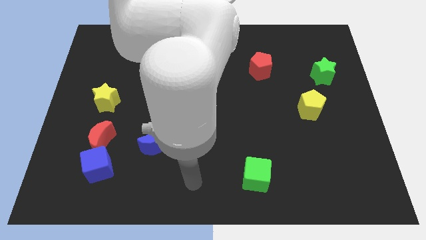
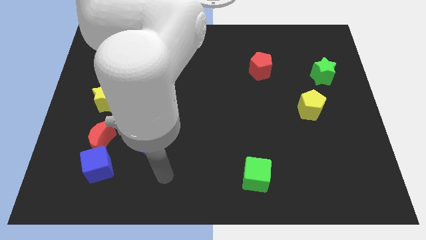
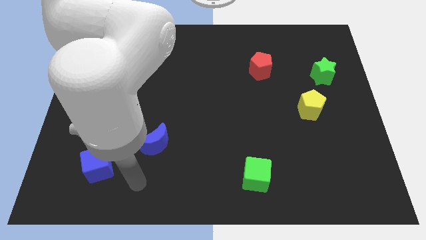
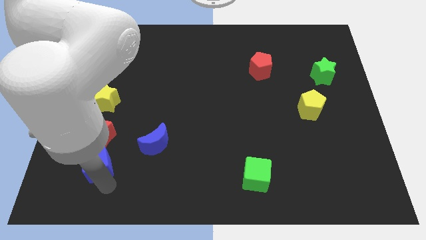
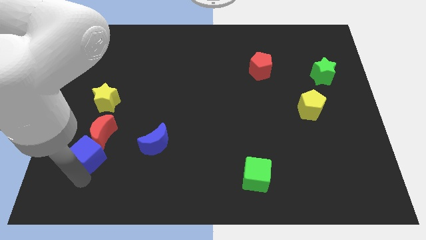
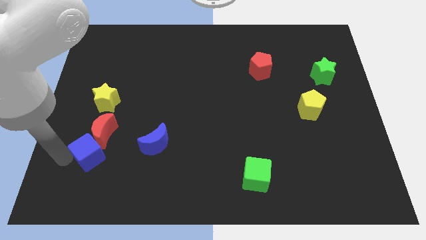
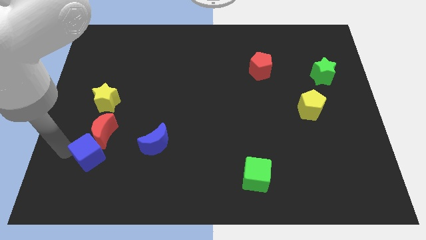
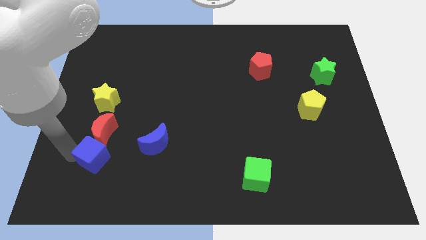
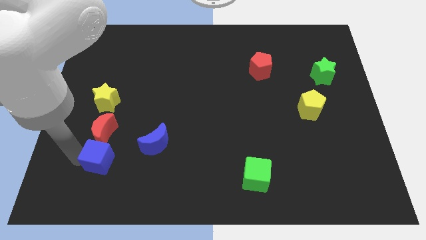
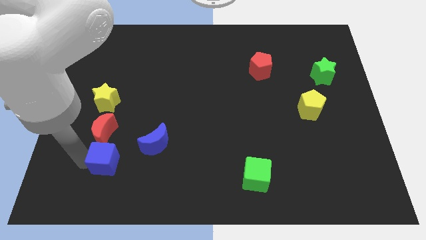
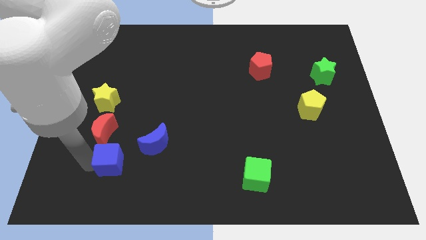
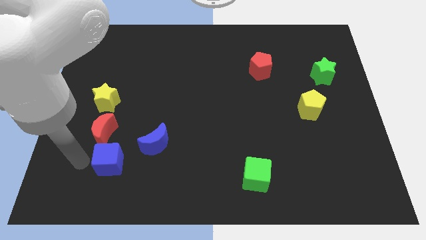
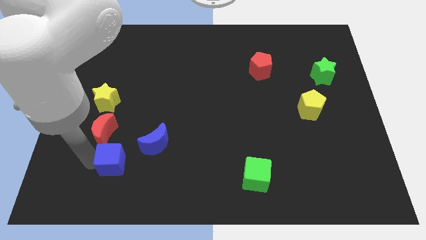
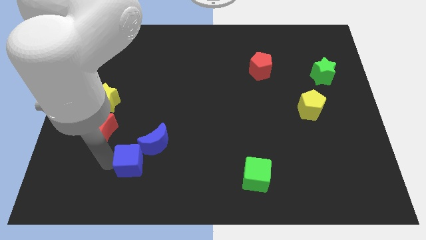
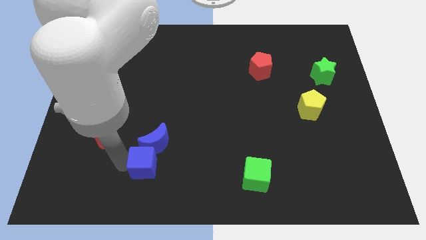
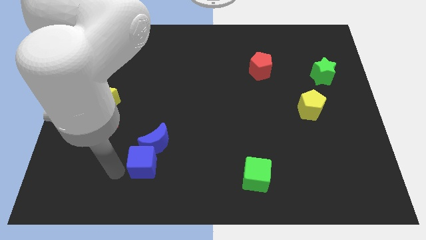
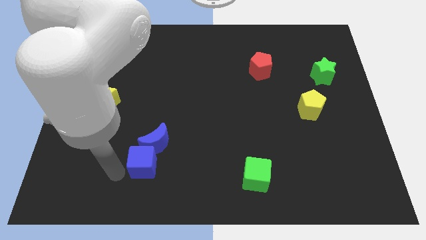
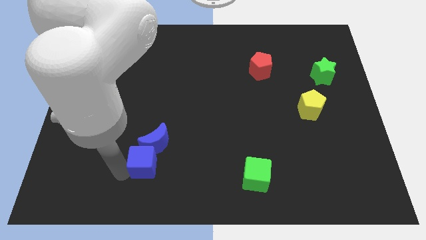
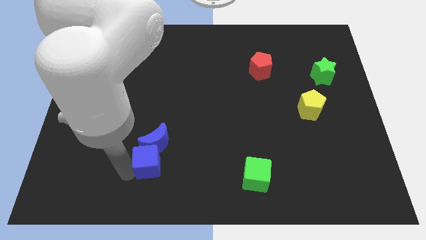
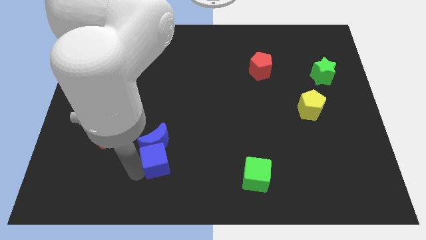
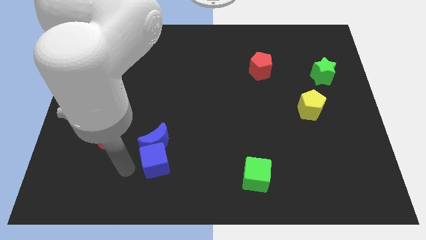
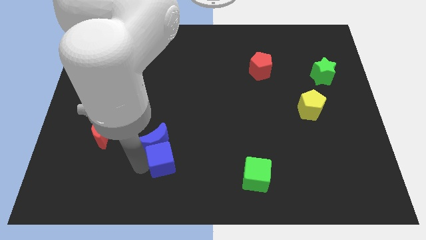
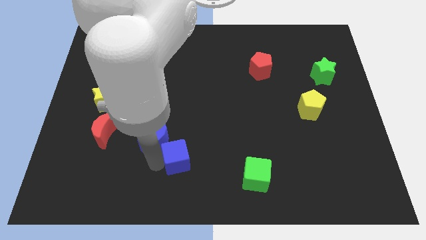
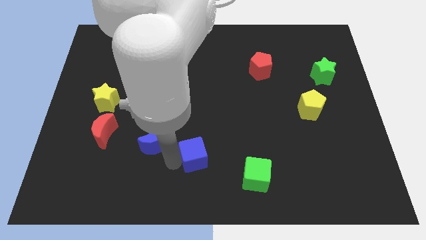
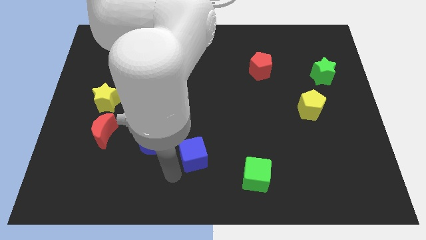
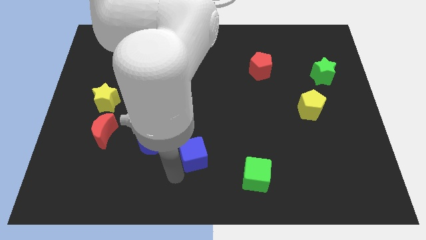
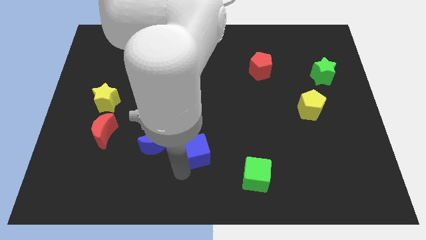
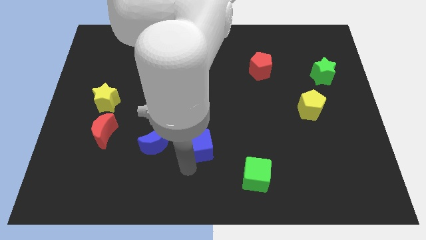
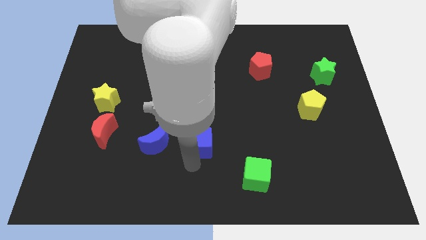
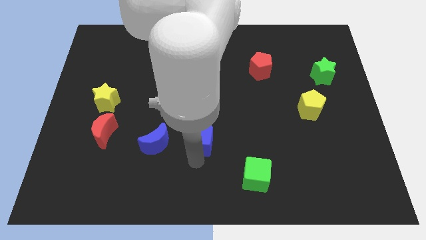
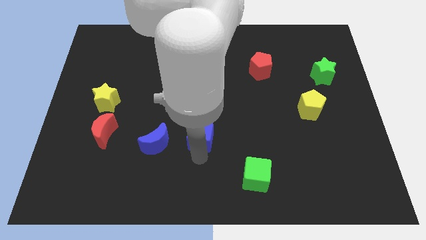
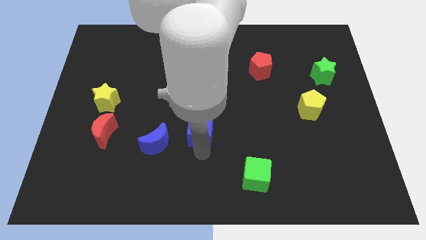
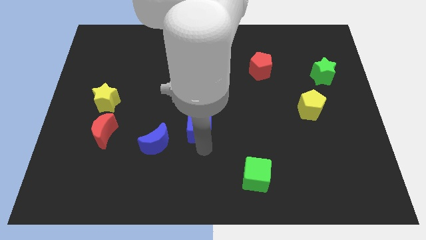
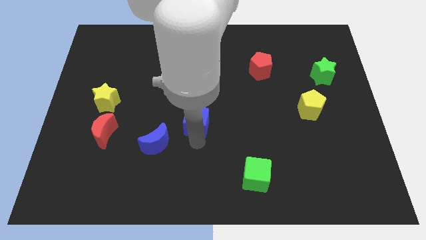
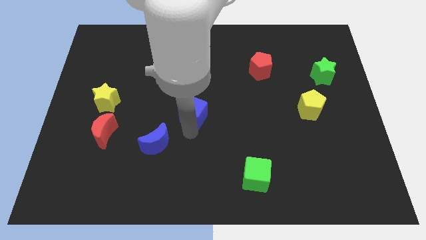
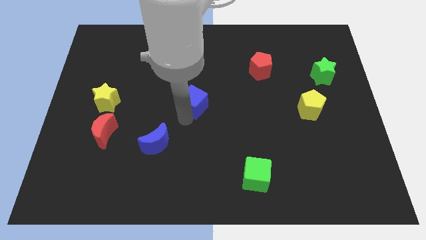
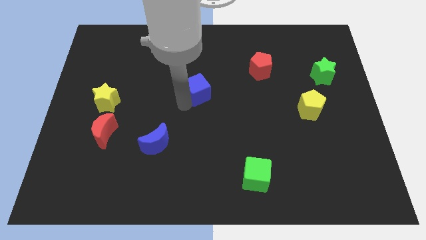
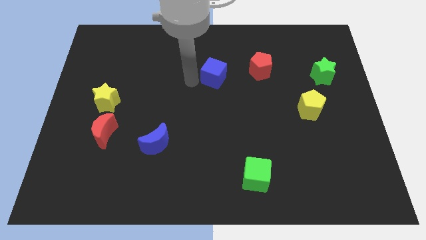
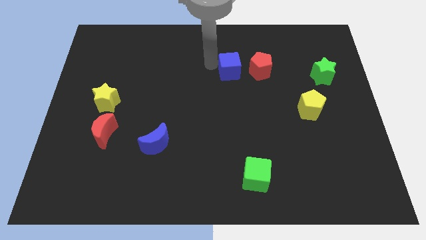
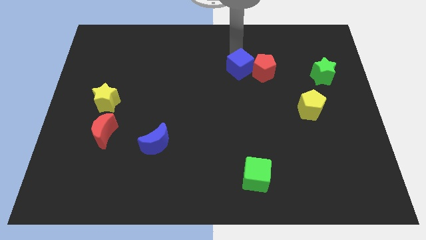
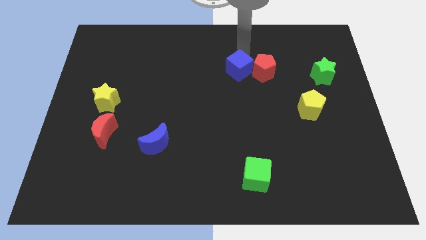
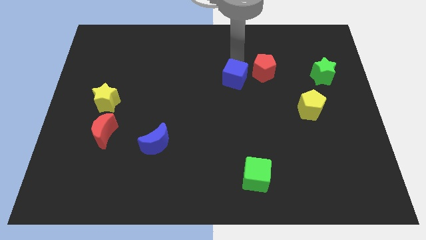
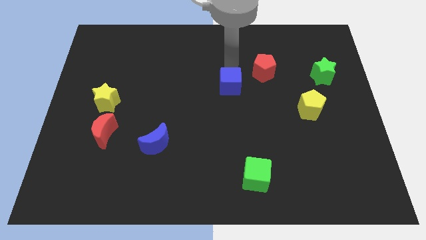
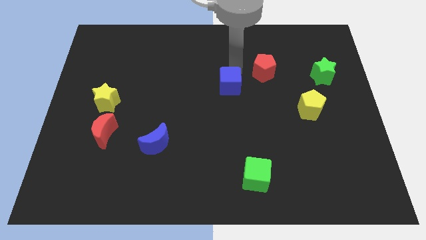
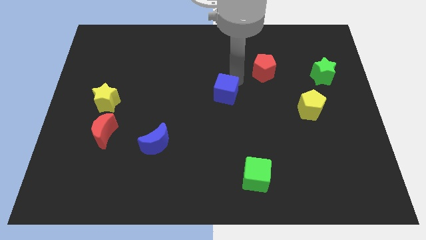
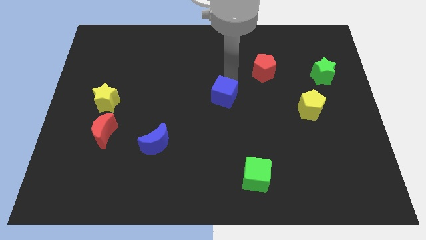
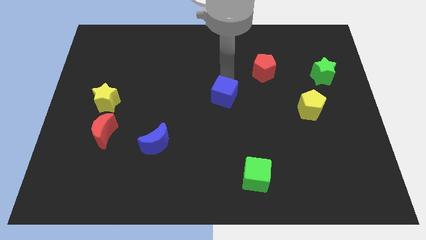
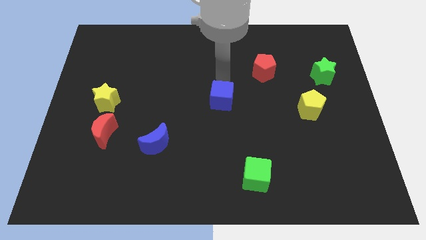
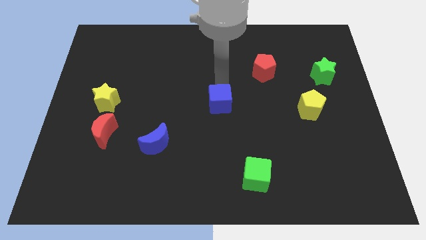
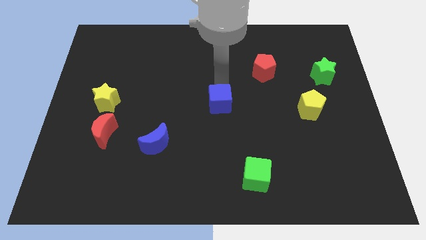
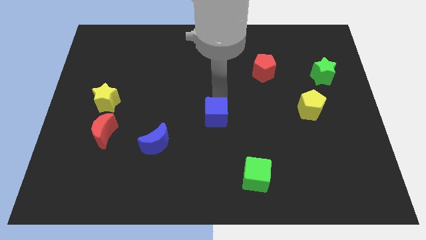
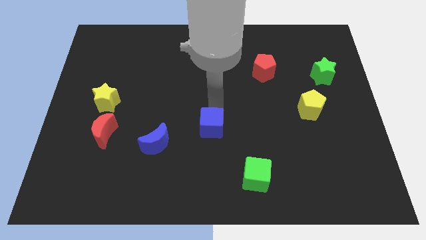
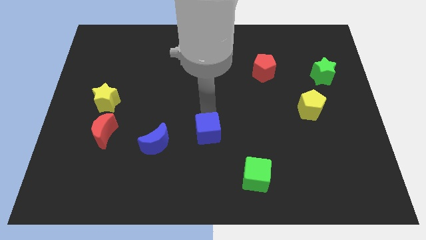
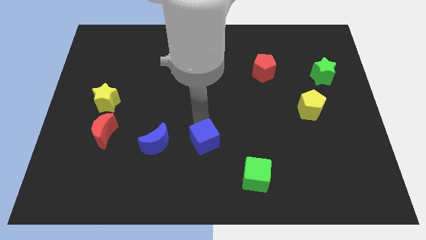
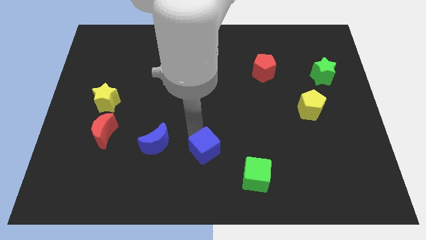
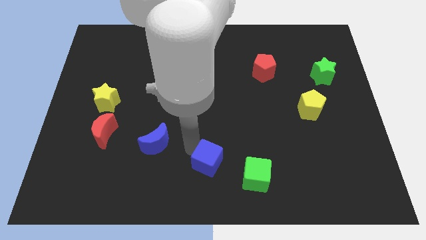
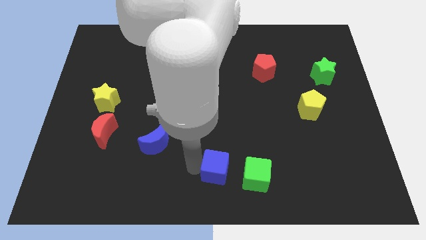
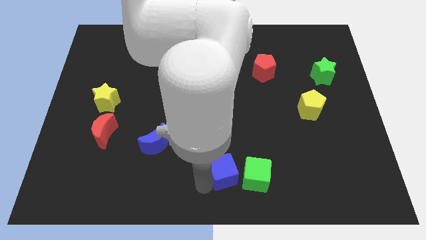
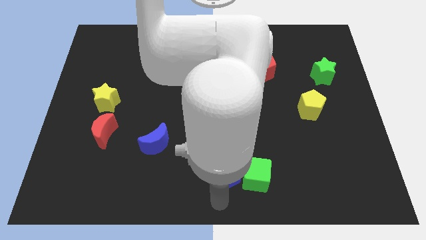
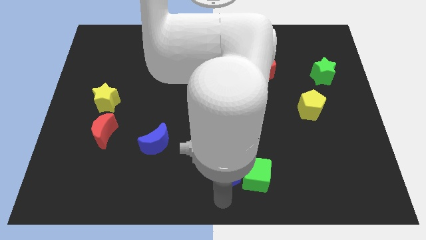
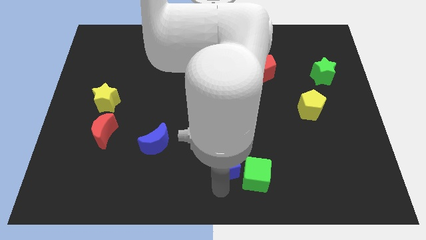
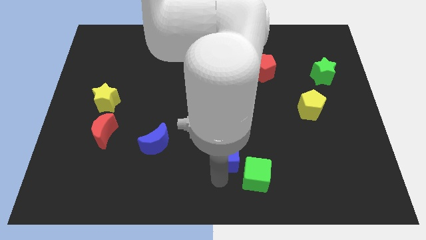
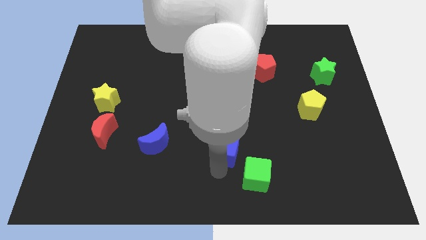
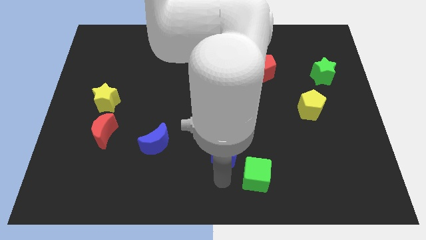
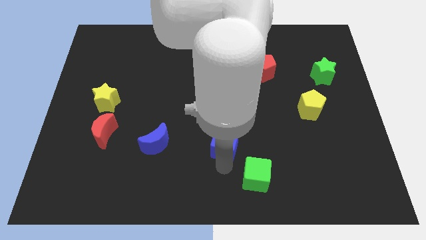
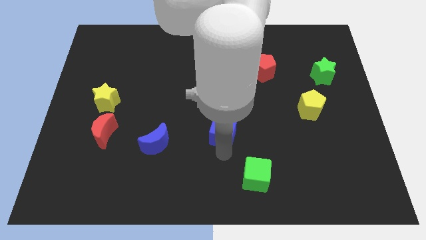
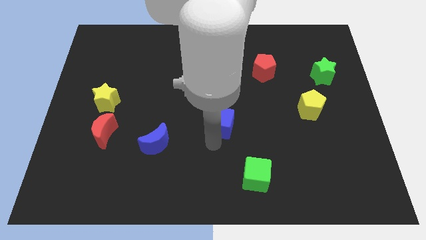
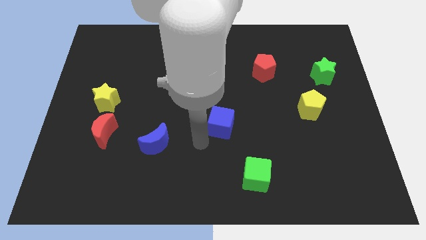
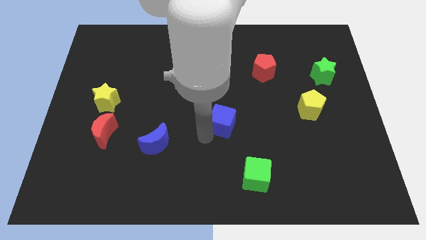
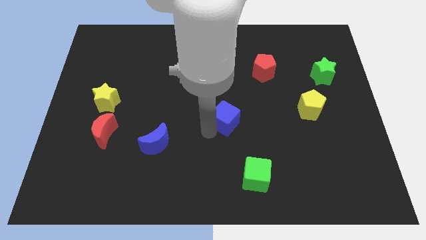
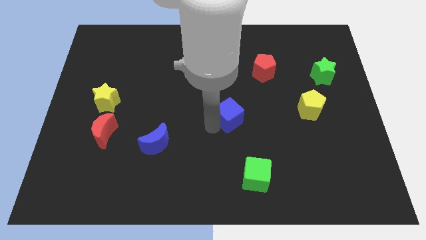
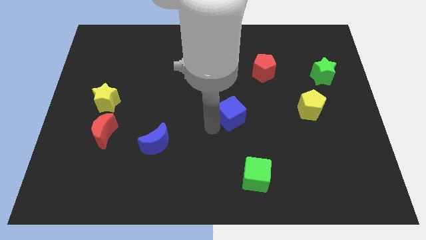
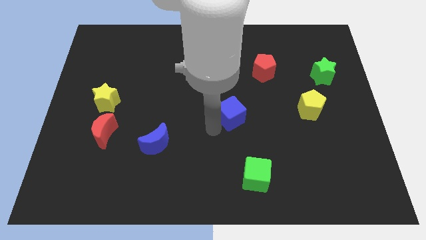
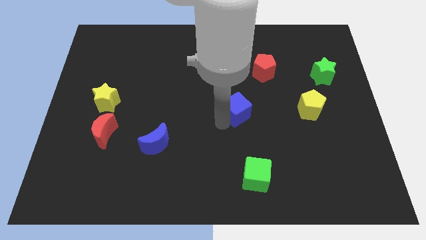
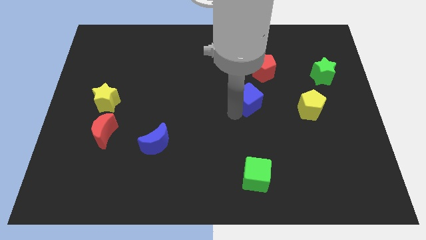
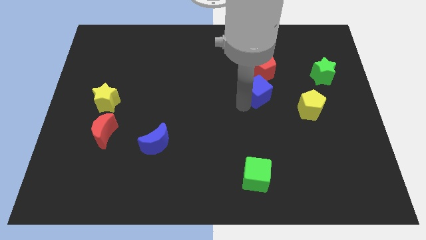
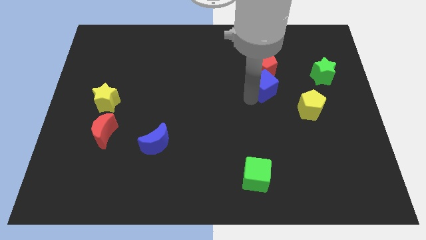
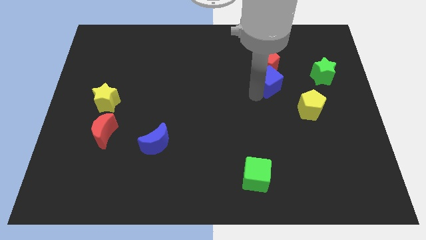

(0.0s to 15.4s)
slide the blue cube left of the green star
